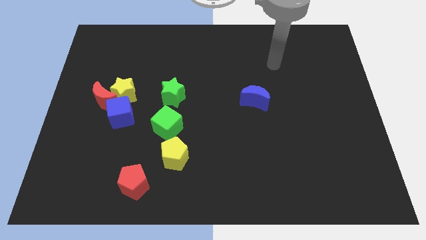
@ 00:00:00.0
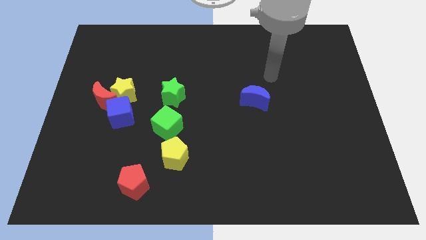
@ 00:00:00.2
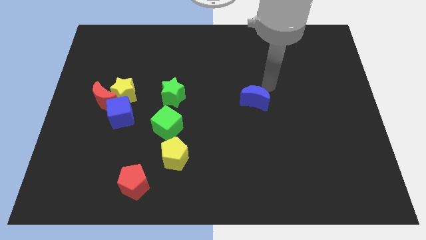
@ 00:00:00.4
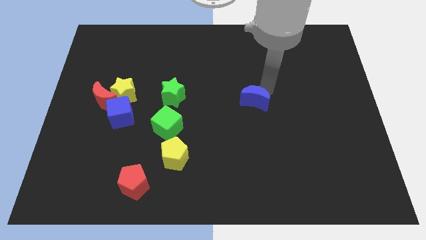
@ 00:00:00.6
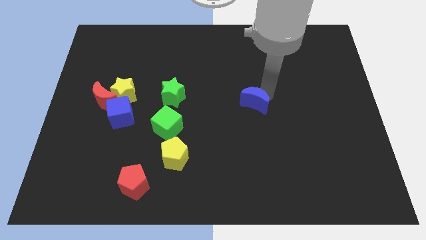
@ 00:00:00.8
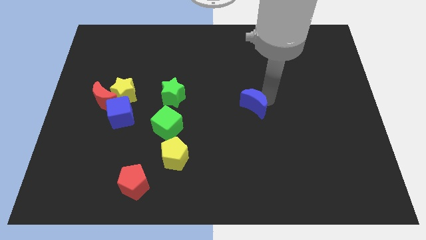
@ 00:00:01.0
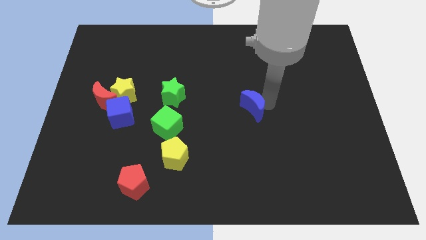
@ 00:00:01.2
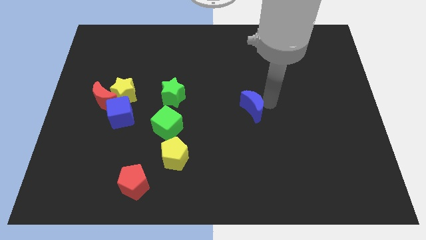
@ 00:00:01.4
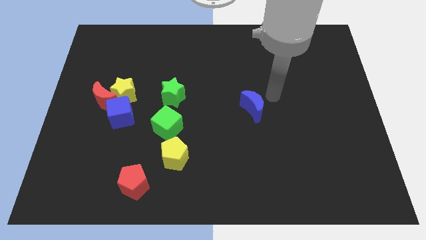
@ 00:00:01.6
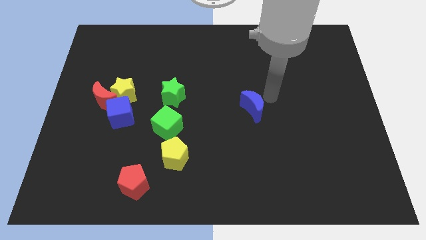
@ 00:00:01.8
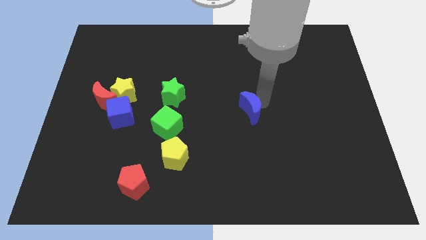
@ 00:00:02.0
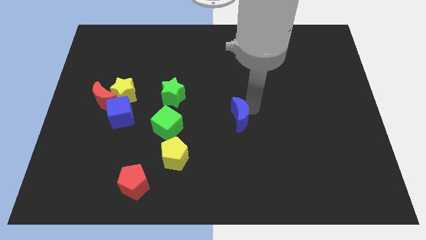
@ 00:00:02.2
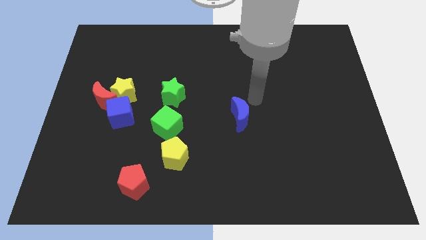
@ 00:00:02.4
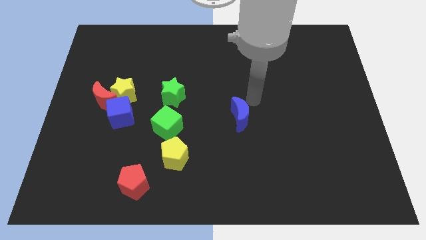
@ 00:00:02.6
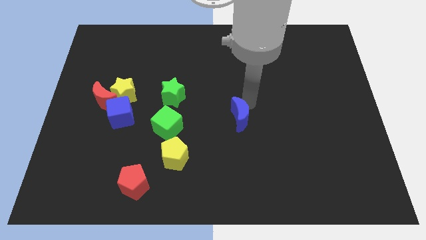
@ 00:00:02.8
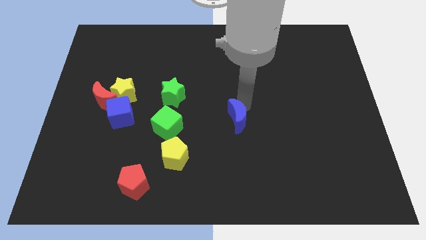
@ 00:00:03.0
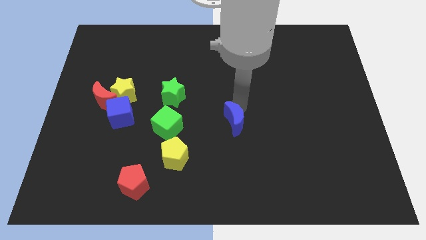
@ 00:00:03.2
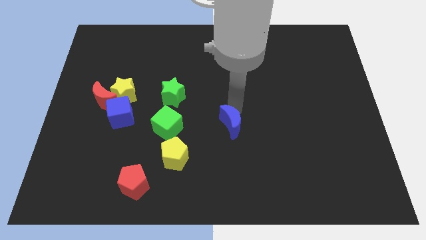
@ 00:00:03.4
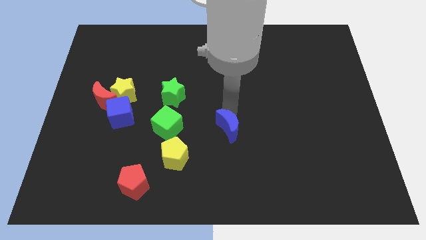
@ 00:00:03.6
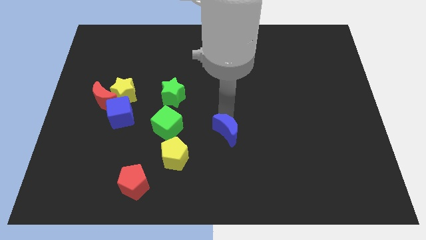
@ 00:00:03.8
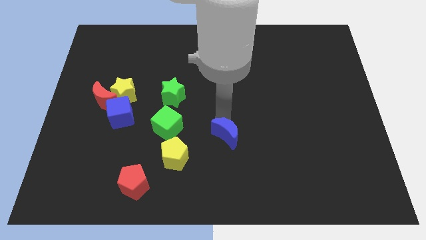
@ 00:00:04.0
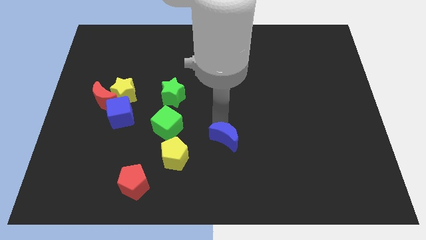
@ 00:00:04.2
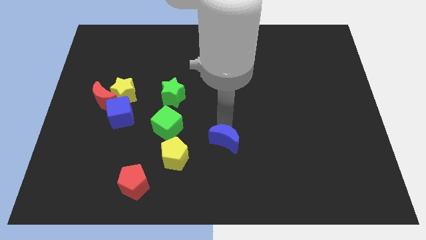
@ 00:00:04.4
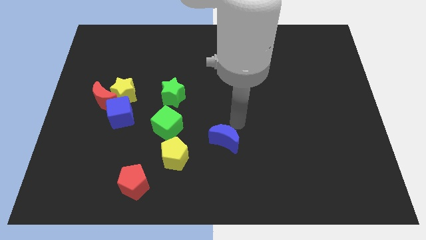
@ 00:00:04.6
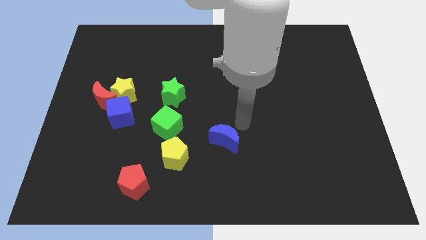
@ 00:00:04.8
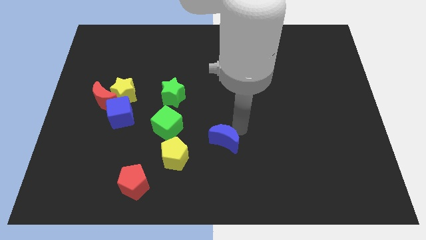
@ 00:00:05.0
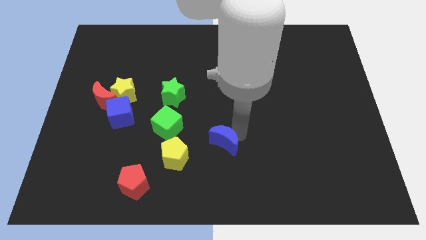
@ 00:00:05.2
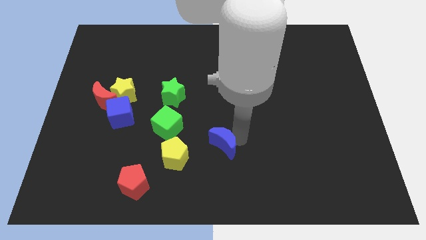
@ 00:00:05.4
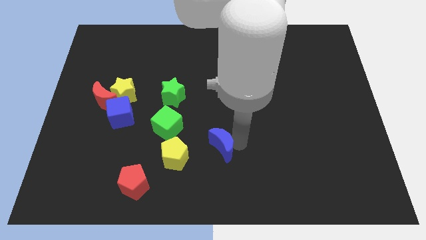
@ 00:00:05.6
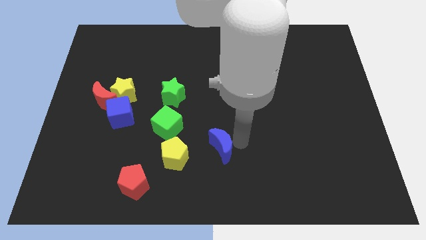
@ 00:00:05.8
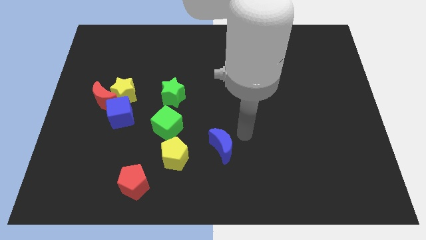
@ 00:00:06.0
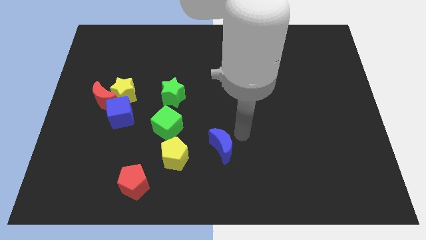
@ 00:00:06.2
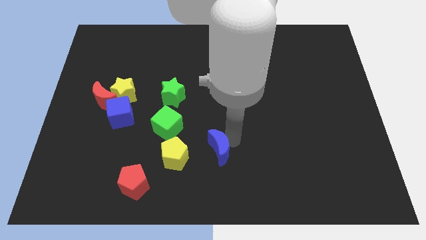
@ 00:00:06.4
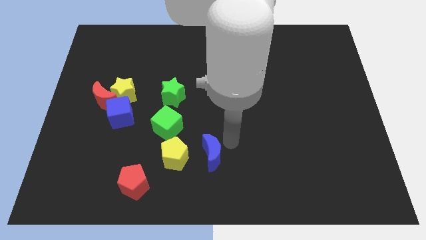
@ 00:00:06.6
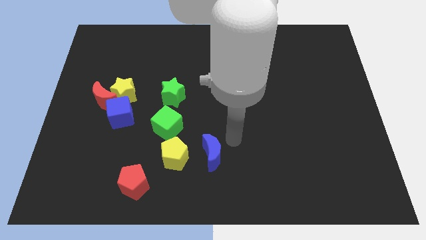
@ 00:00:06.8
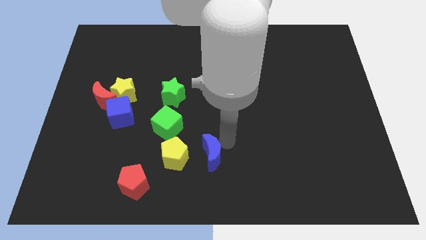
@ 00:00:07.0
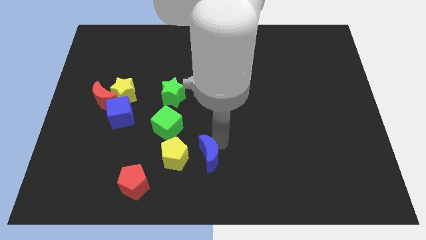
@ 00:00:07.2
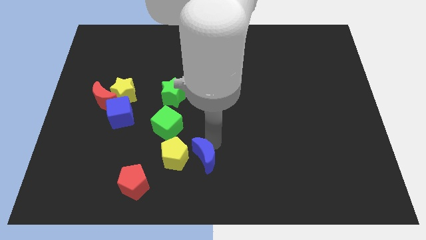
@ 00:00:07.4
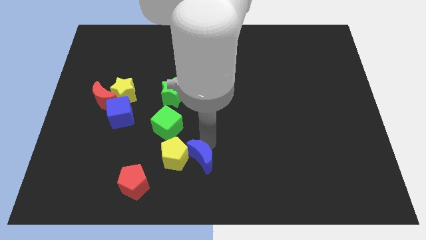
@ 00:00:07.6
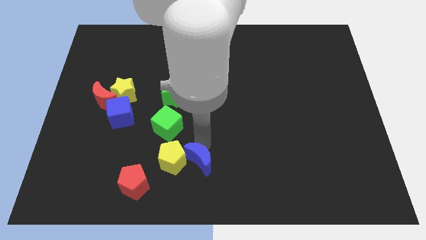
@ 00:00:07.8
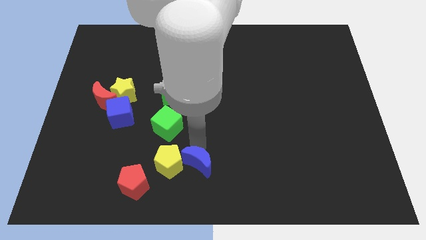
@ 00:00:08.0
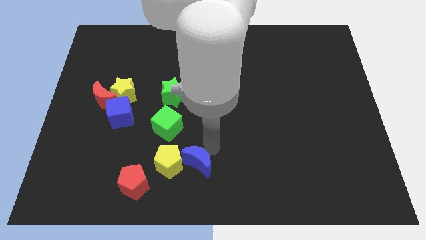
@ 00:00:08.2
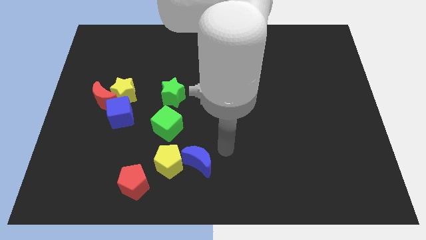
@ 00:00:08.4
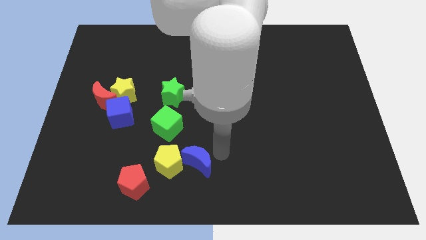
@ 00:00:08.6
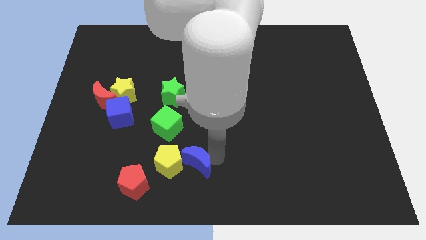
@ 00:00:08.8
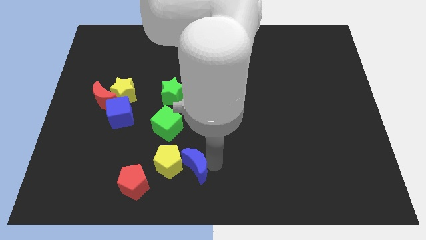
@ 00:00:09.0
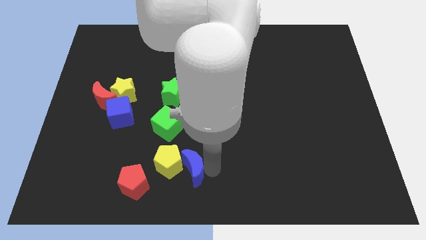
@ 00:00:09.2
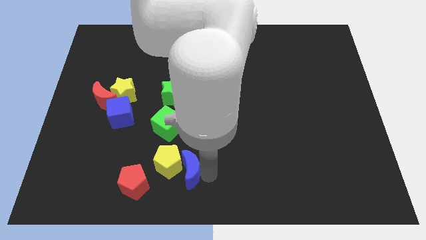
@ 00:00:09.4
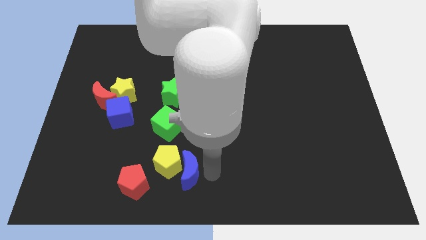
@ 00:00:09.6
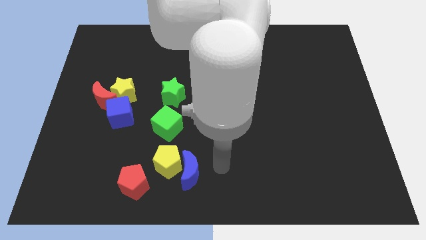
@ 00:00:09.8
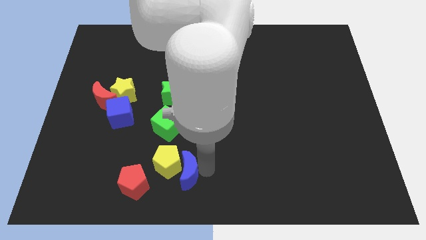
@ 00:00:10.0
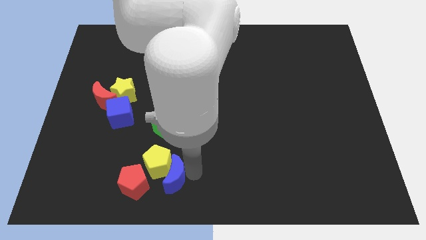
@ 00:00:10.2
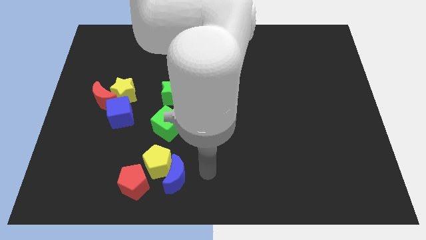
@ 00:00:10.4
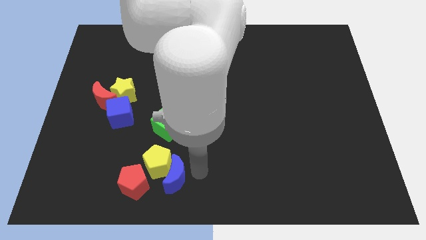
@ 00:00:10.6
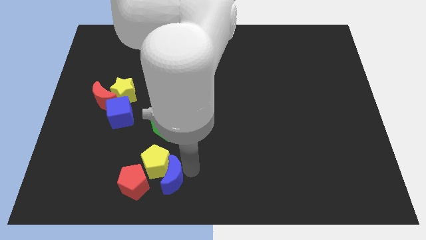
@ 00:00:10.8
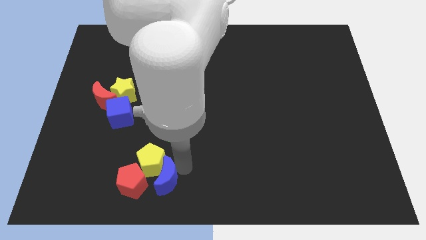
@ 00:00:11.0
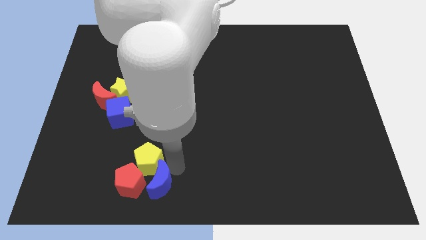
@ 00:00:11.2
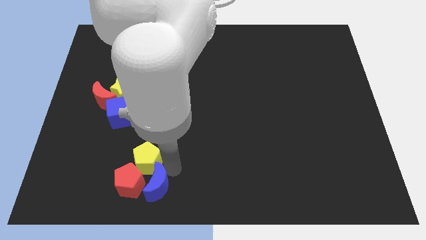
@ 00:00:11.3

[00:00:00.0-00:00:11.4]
push the blue moon towards the red pentagon
